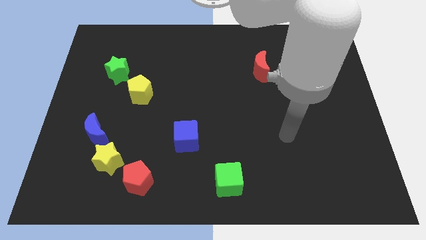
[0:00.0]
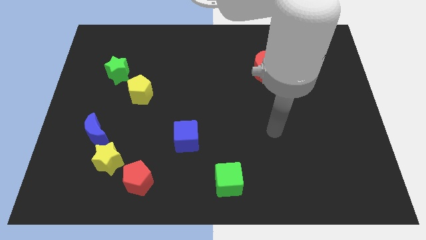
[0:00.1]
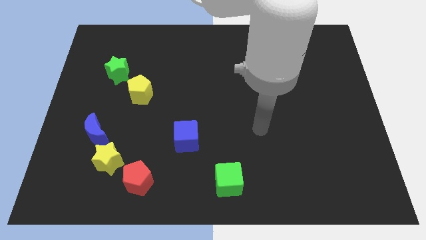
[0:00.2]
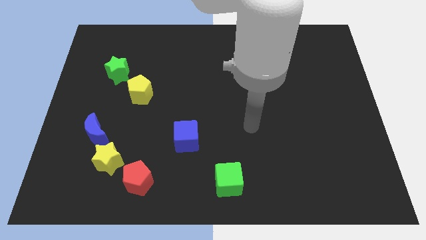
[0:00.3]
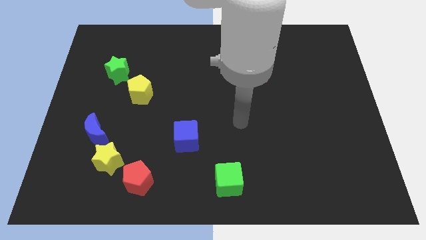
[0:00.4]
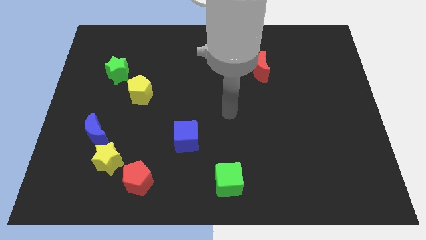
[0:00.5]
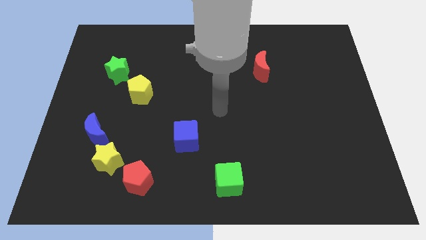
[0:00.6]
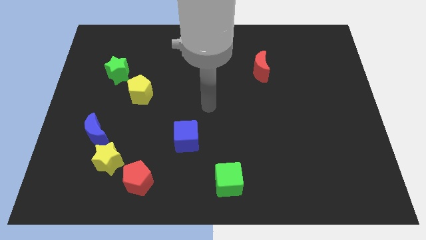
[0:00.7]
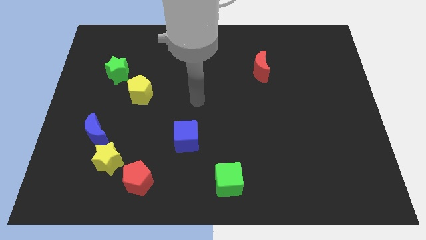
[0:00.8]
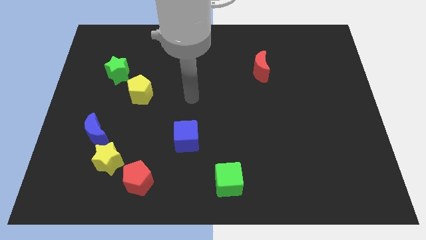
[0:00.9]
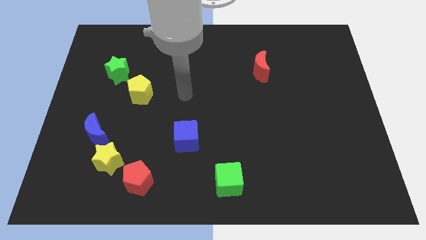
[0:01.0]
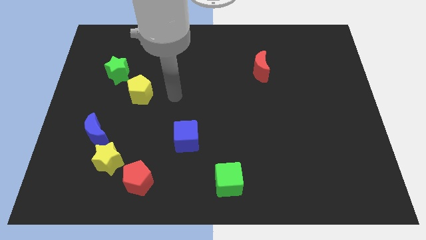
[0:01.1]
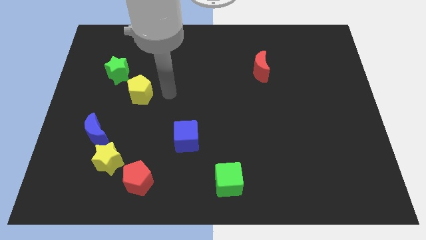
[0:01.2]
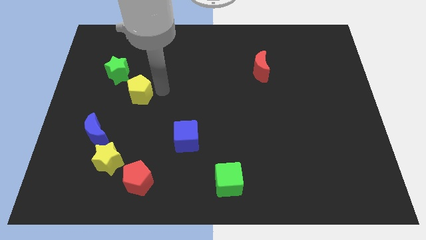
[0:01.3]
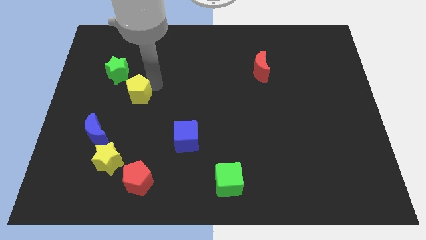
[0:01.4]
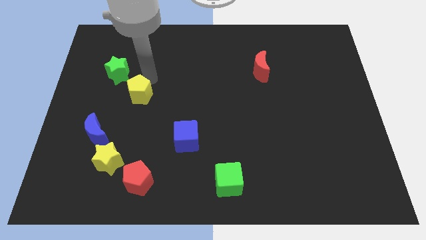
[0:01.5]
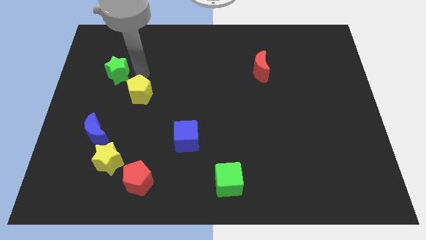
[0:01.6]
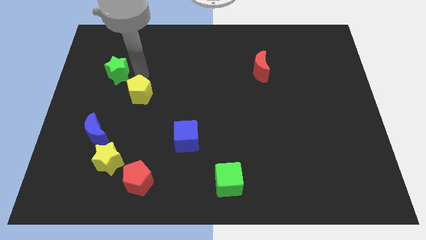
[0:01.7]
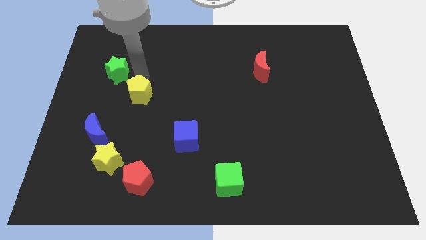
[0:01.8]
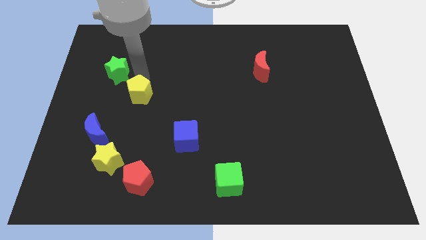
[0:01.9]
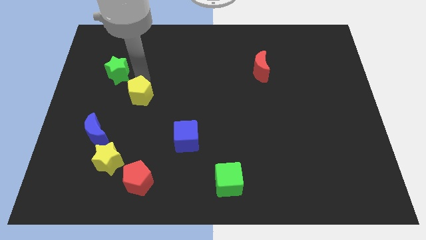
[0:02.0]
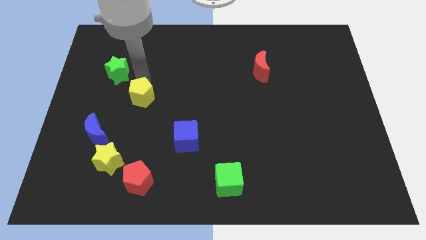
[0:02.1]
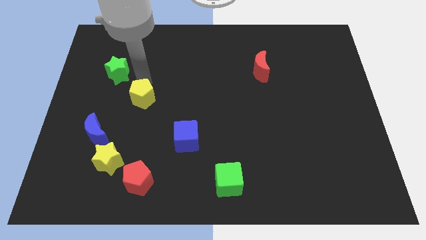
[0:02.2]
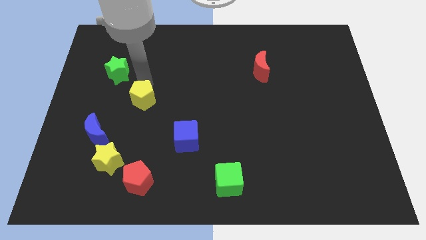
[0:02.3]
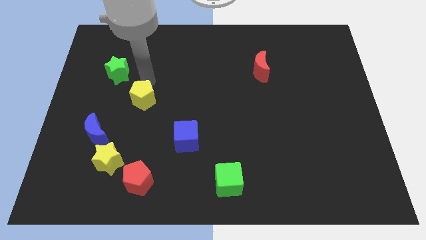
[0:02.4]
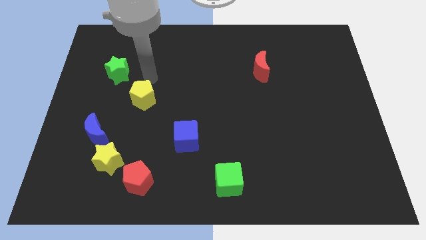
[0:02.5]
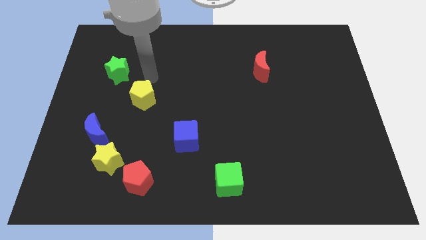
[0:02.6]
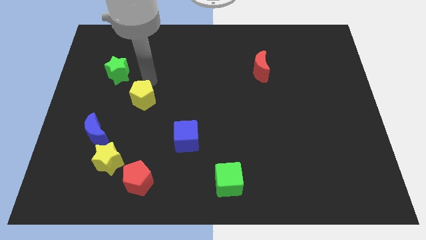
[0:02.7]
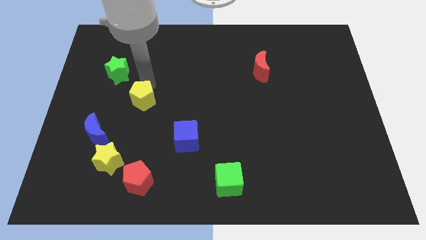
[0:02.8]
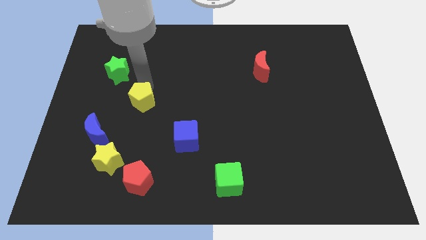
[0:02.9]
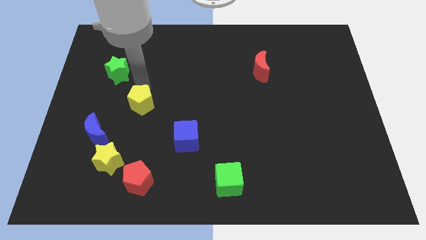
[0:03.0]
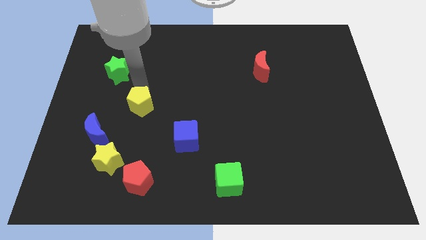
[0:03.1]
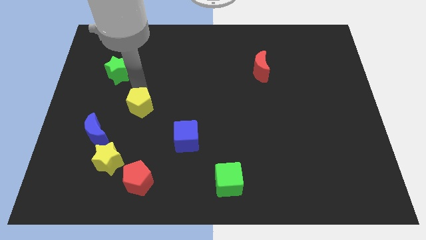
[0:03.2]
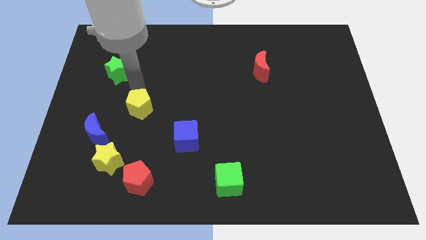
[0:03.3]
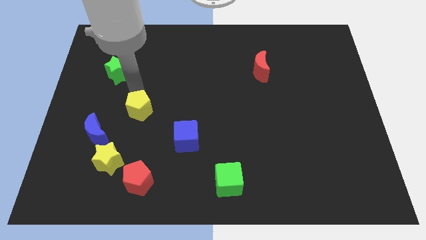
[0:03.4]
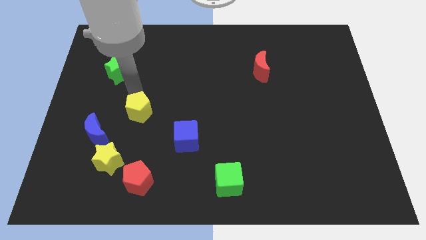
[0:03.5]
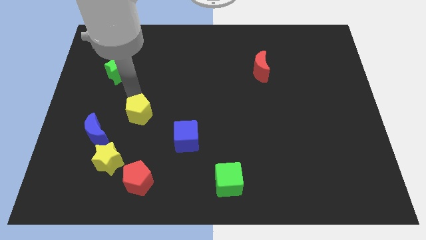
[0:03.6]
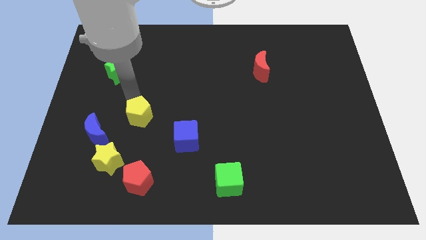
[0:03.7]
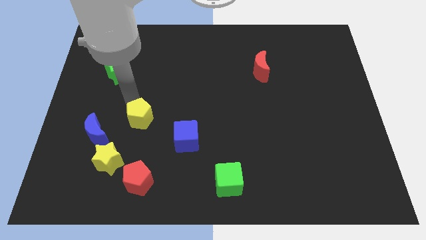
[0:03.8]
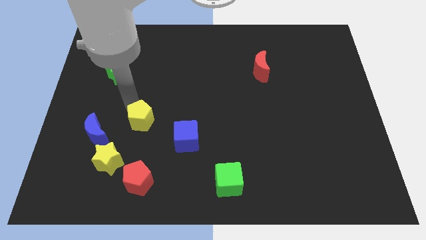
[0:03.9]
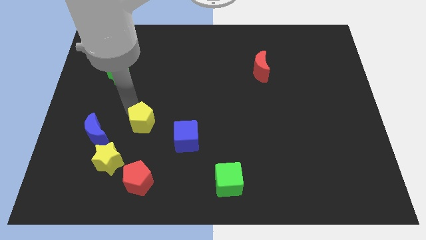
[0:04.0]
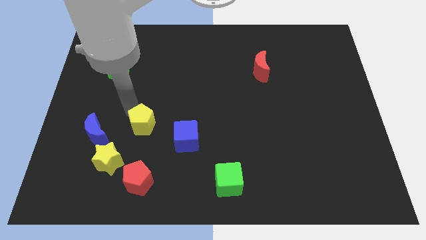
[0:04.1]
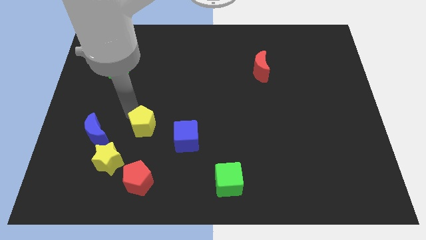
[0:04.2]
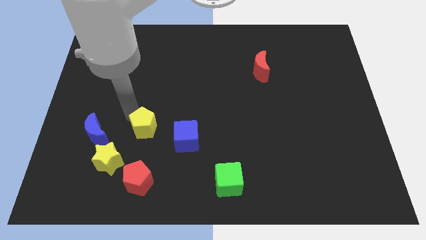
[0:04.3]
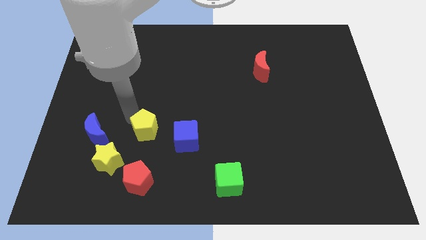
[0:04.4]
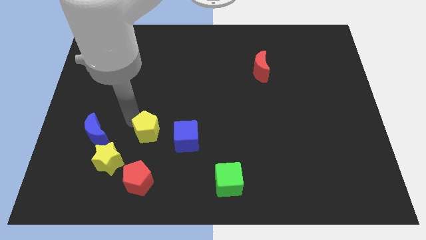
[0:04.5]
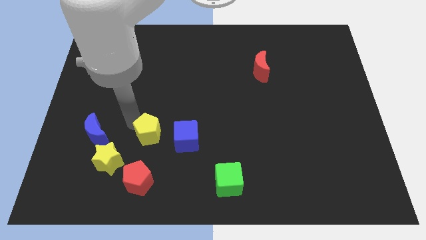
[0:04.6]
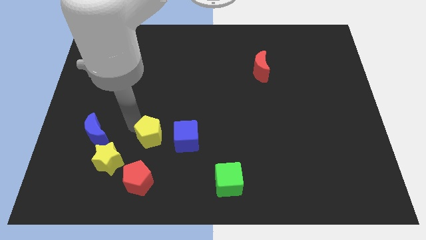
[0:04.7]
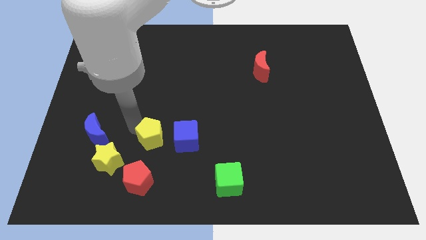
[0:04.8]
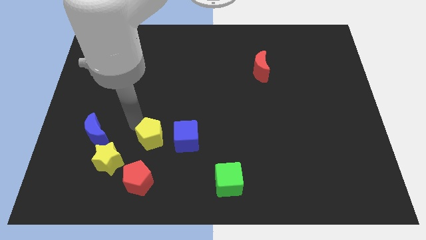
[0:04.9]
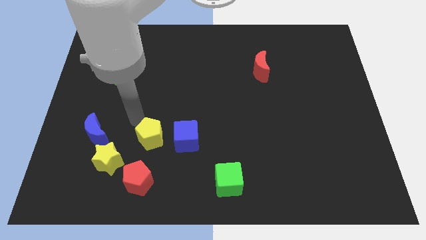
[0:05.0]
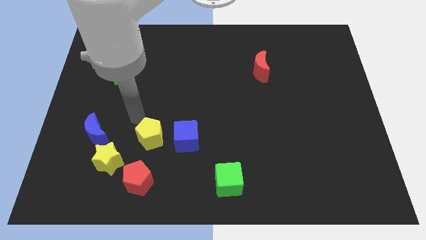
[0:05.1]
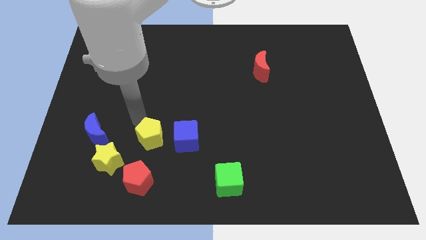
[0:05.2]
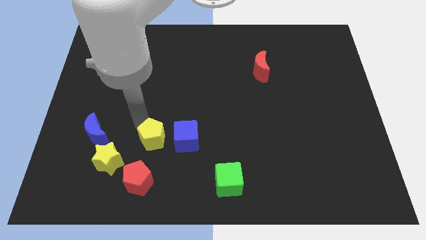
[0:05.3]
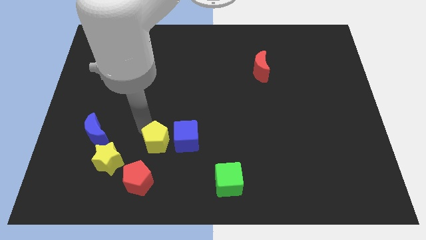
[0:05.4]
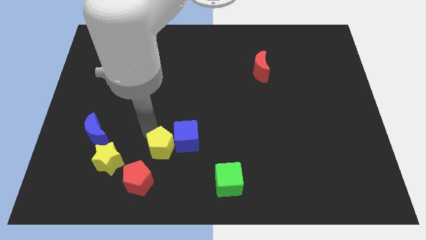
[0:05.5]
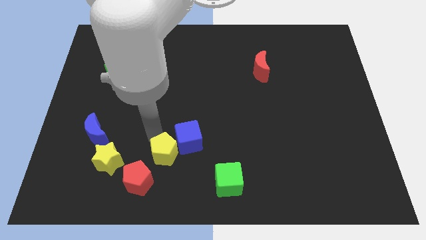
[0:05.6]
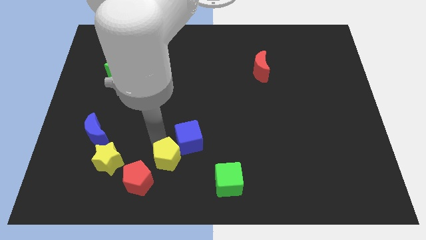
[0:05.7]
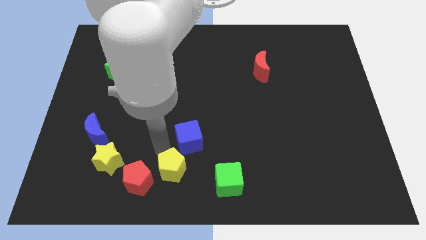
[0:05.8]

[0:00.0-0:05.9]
put the yellow pentagon to the bottom side

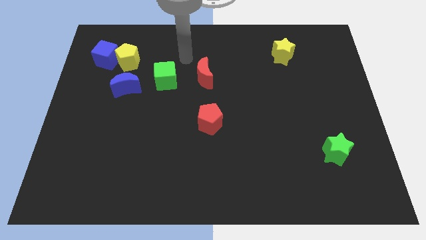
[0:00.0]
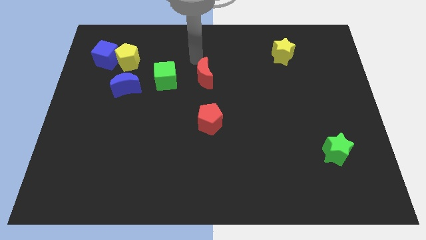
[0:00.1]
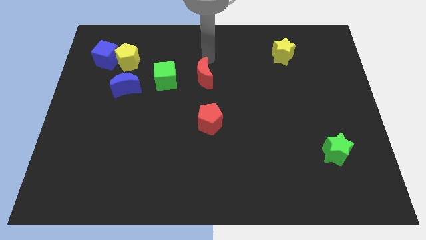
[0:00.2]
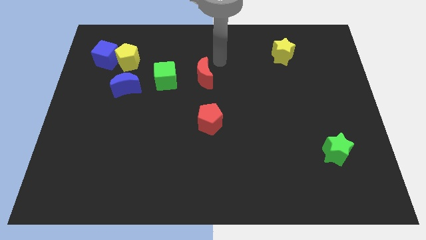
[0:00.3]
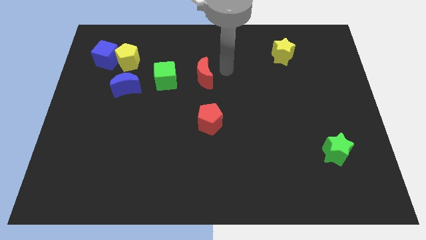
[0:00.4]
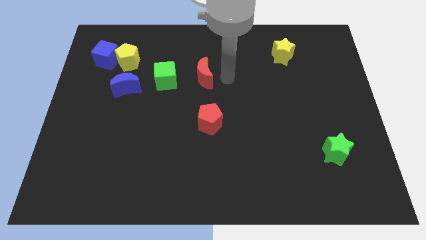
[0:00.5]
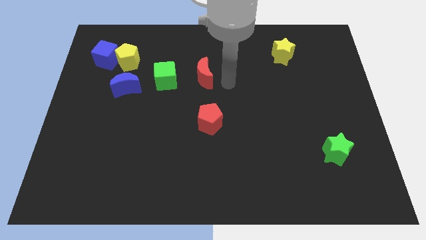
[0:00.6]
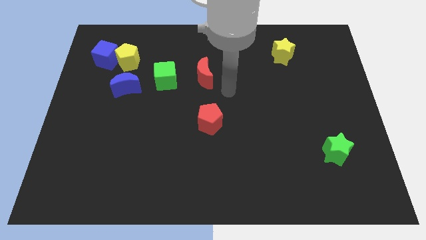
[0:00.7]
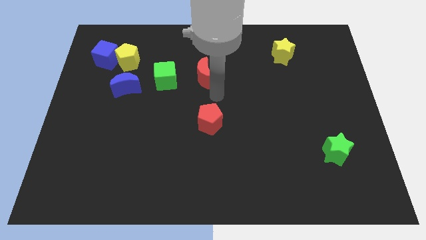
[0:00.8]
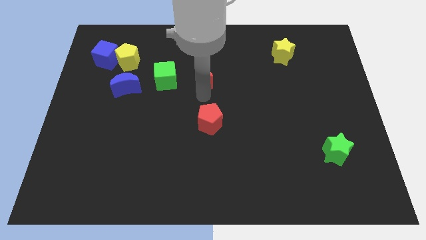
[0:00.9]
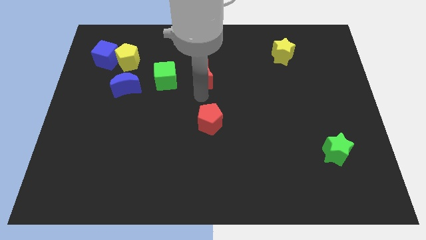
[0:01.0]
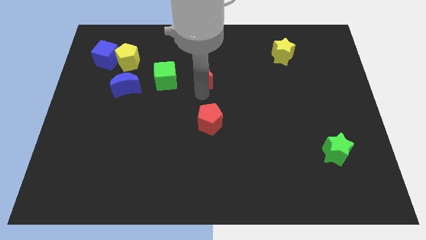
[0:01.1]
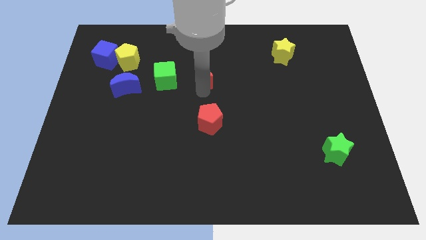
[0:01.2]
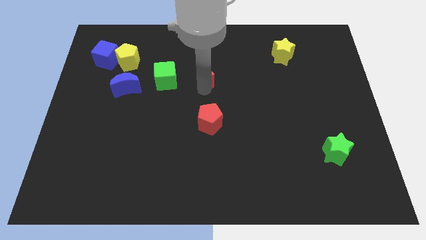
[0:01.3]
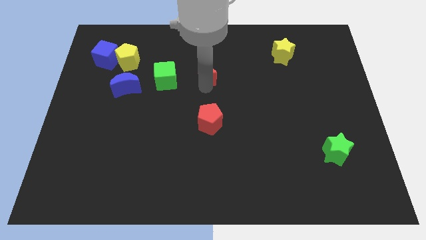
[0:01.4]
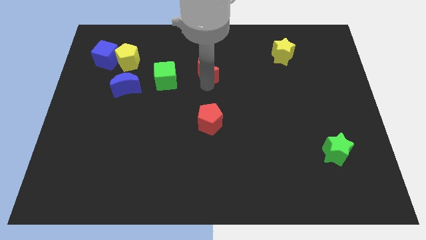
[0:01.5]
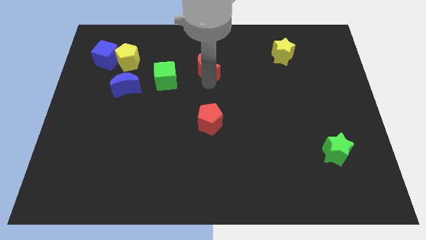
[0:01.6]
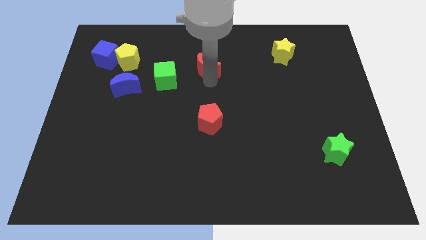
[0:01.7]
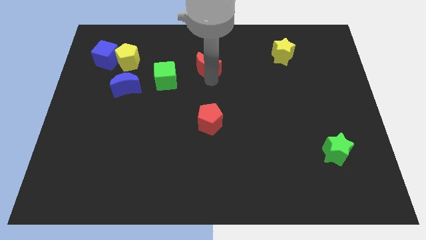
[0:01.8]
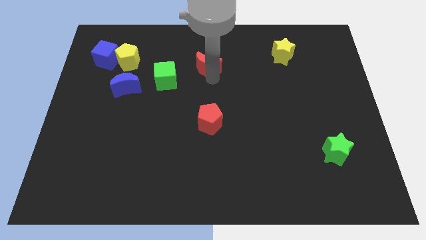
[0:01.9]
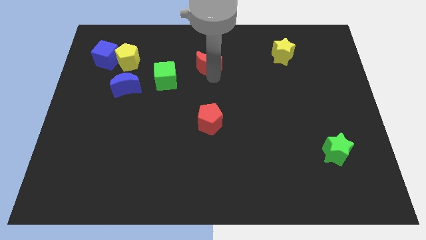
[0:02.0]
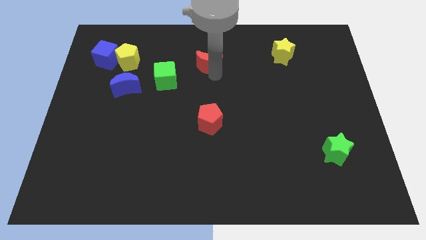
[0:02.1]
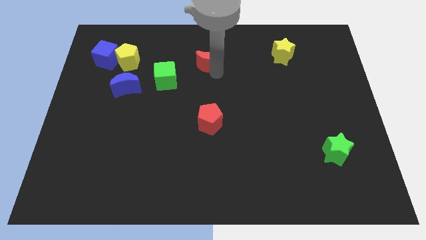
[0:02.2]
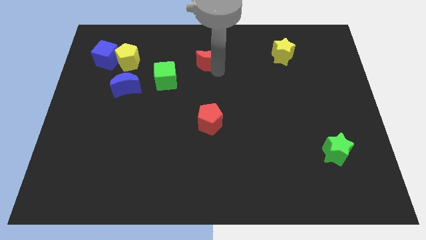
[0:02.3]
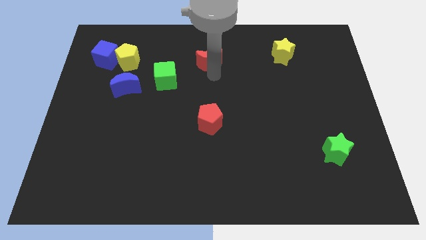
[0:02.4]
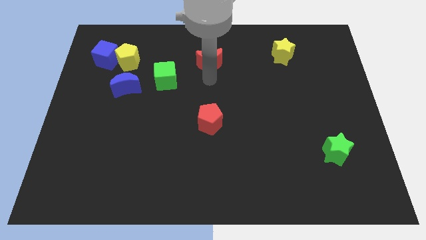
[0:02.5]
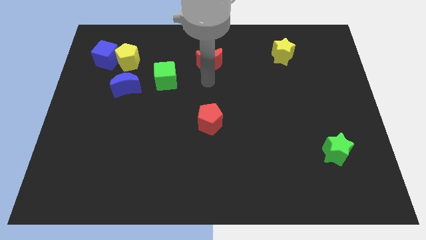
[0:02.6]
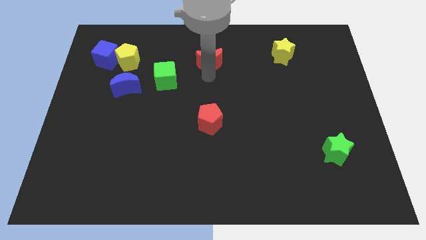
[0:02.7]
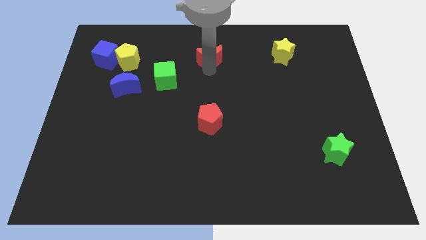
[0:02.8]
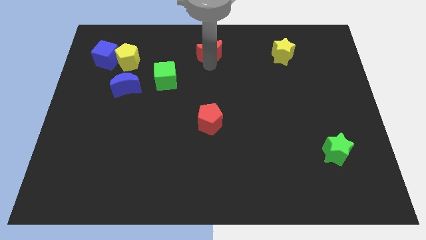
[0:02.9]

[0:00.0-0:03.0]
put the red moon to the top
